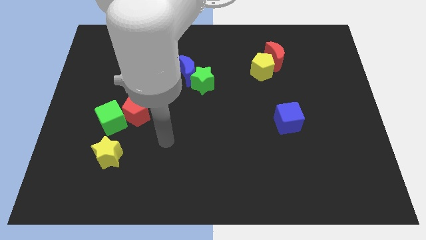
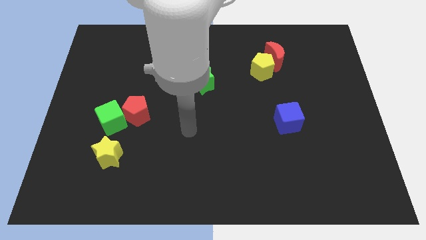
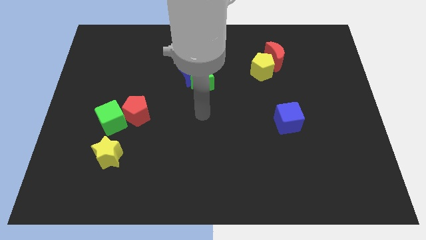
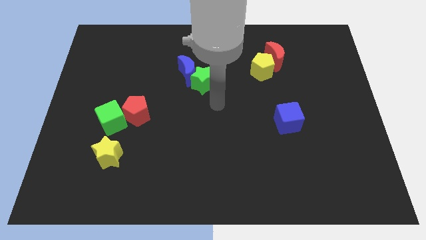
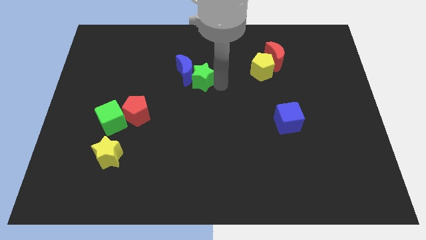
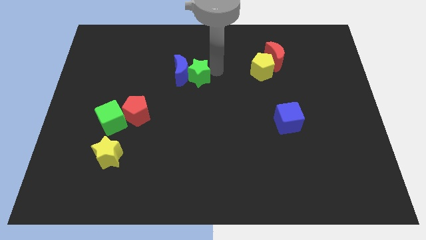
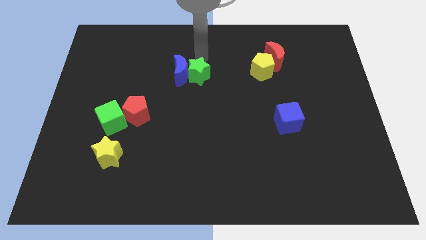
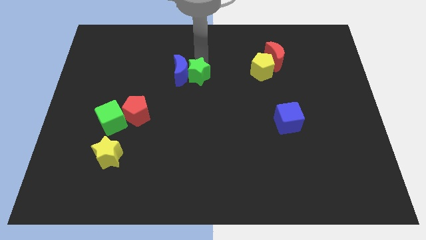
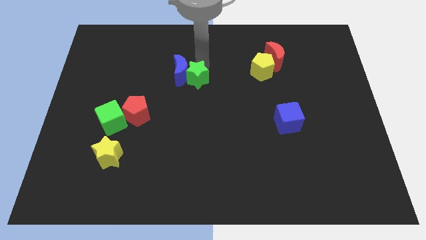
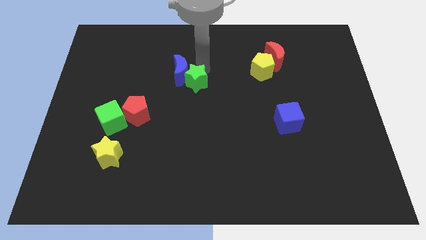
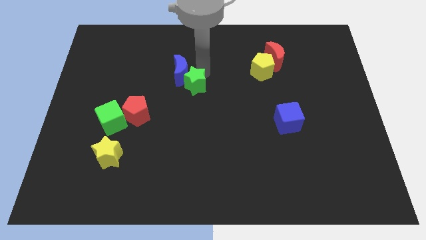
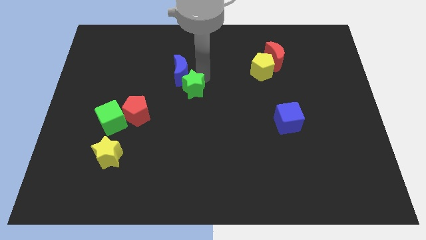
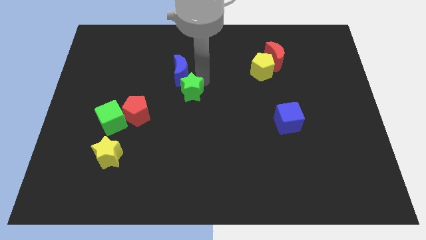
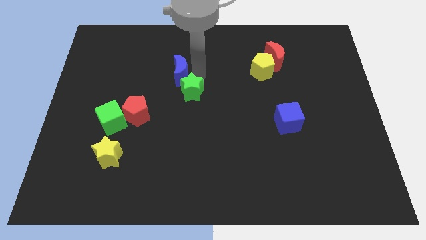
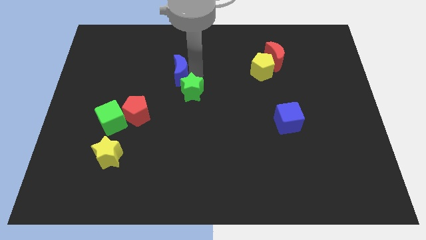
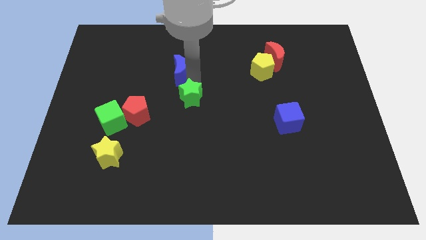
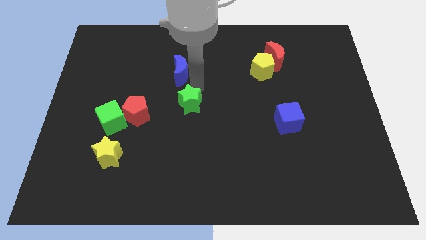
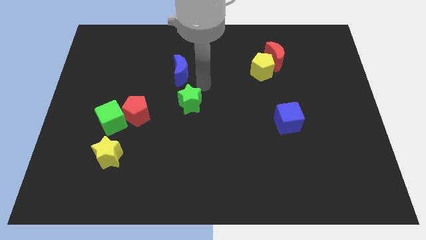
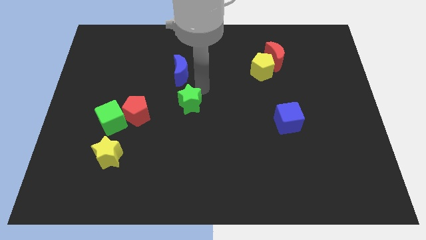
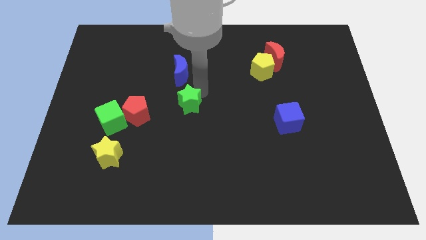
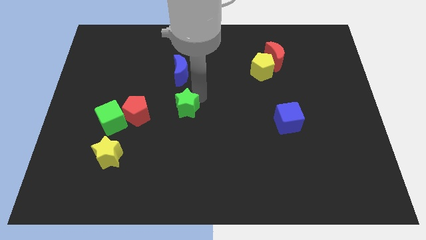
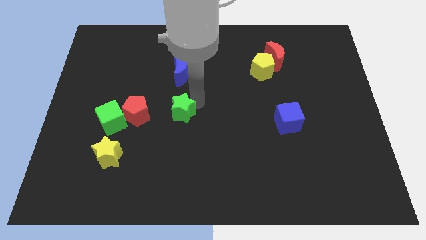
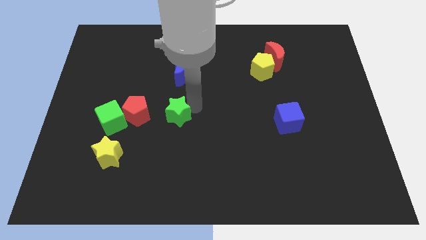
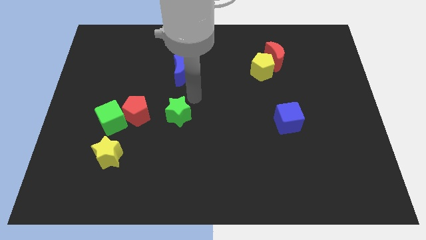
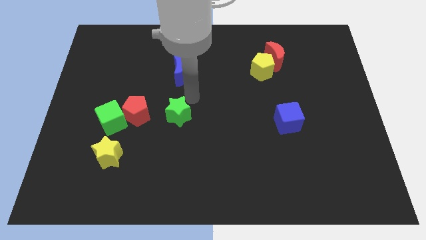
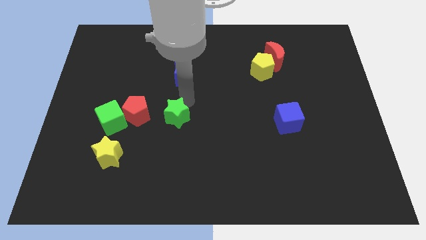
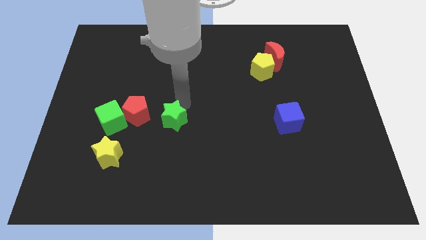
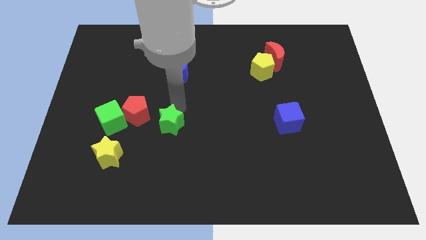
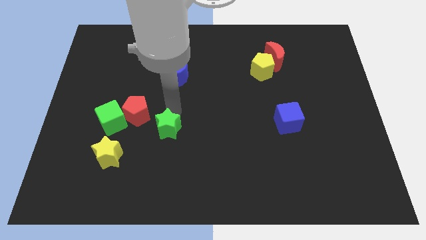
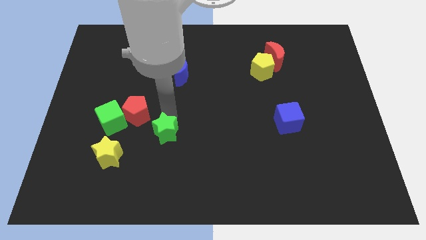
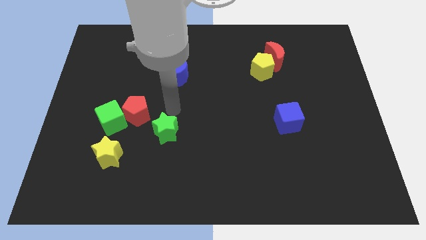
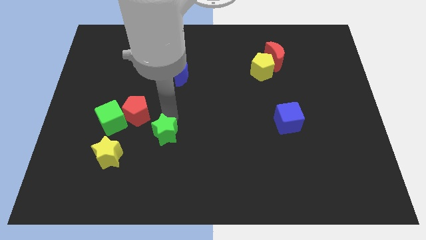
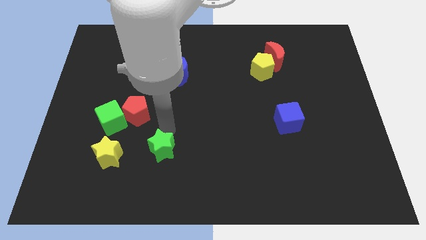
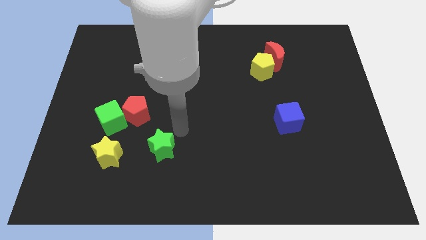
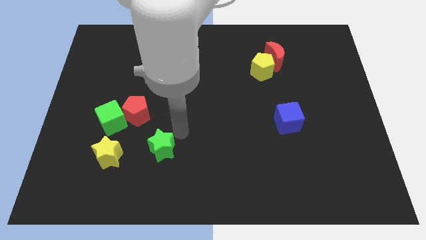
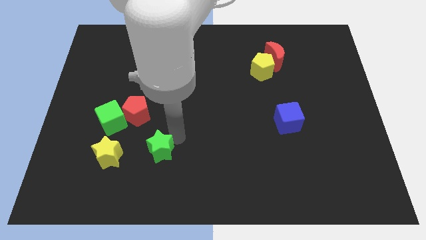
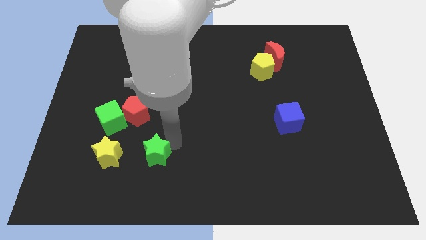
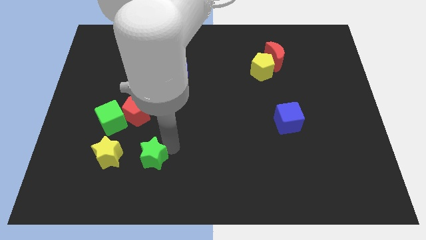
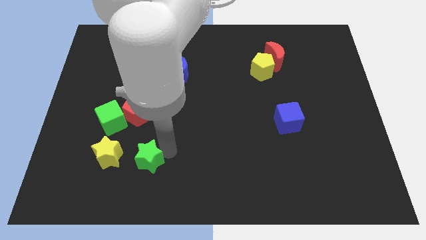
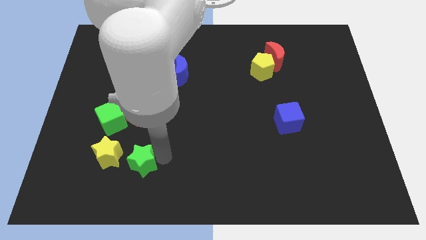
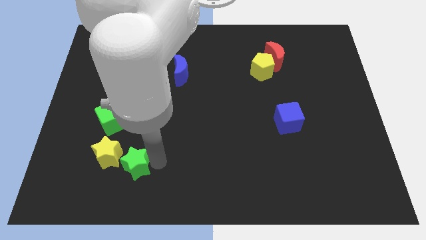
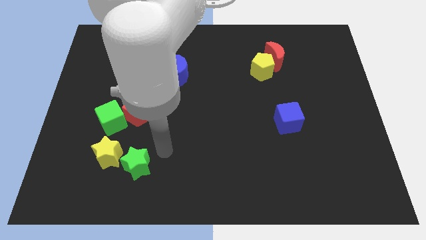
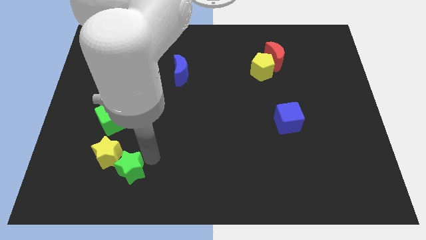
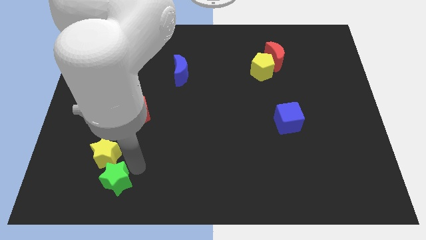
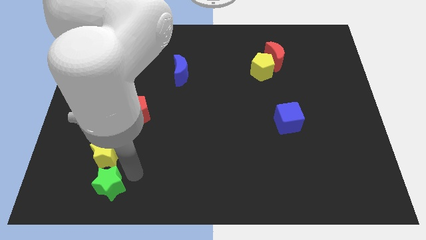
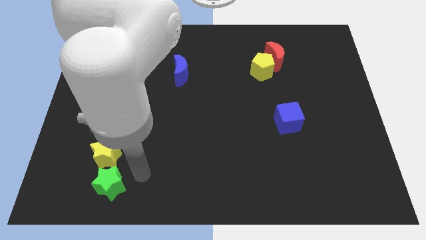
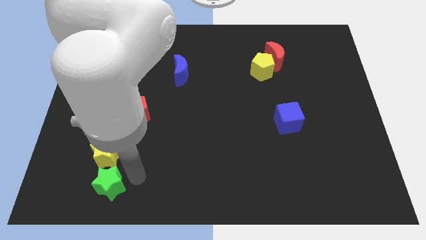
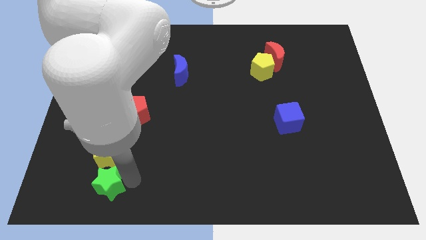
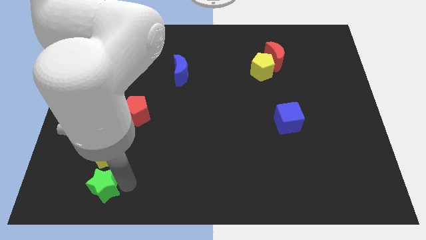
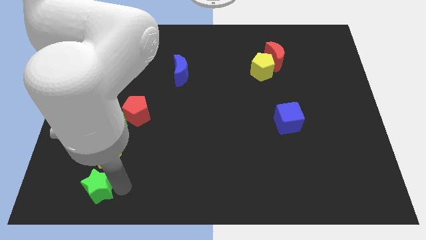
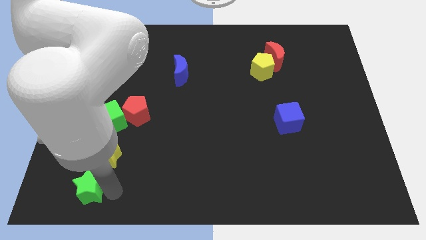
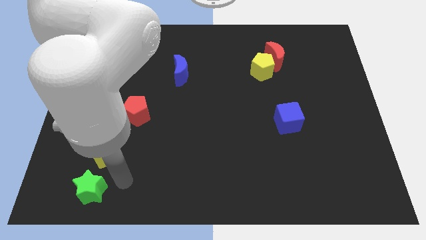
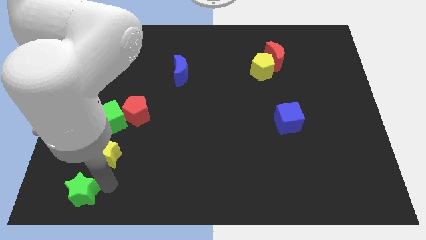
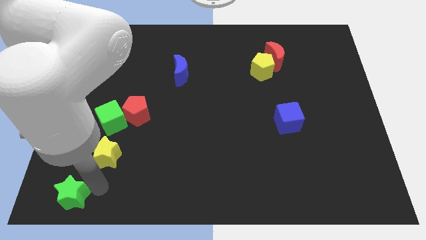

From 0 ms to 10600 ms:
move the green star to the lower left corner
